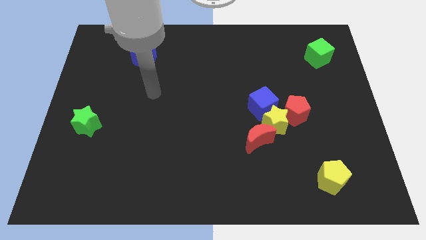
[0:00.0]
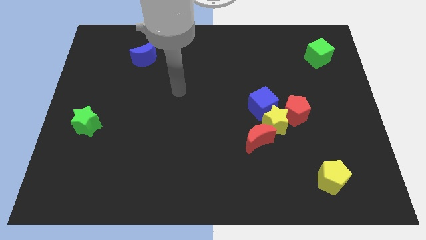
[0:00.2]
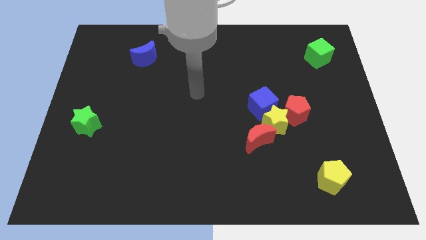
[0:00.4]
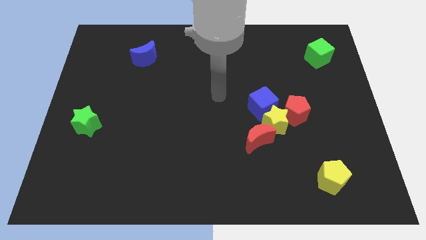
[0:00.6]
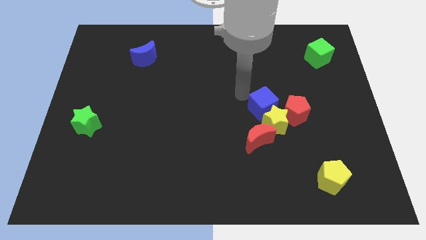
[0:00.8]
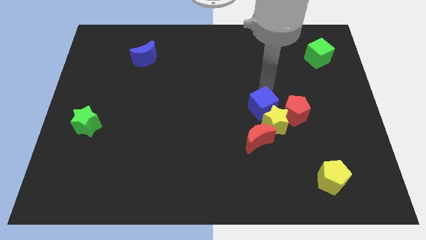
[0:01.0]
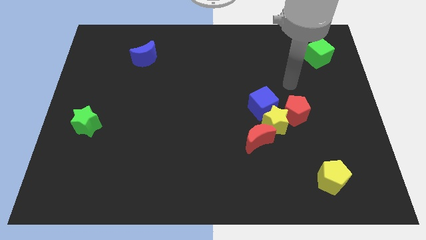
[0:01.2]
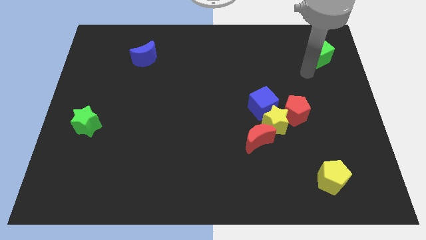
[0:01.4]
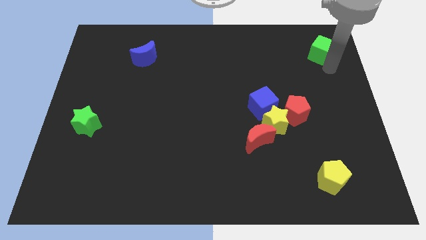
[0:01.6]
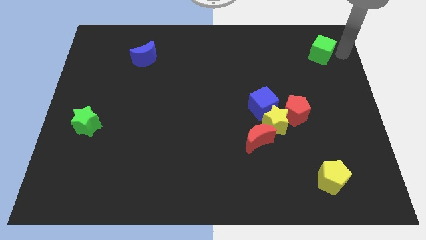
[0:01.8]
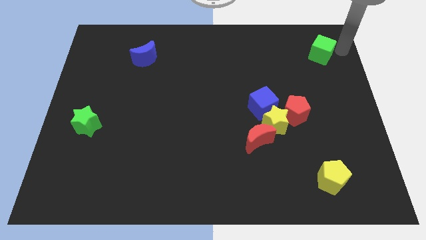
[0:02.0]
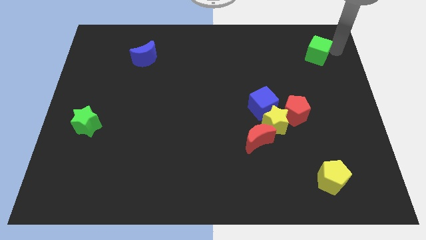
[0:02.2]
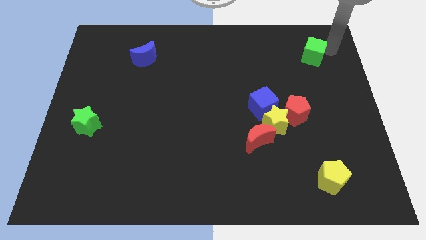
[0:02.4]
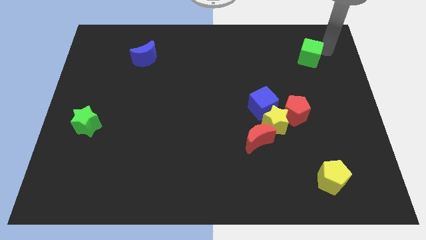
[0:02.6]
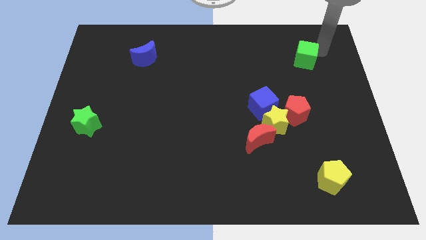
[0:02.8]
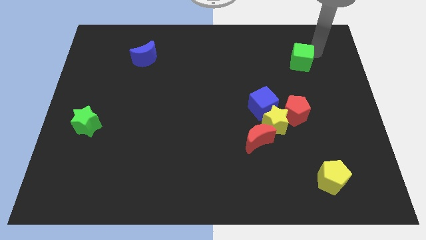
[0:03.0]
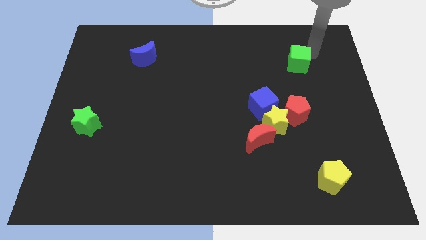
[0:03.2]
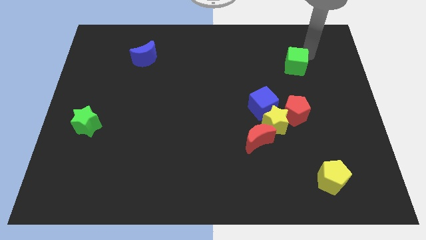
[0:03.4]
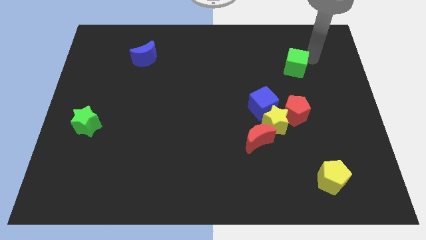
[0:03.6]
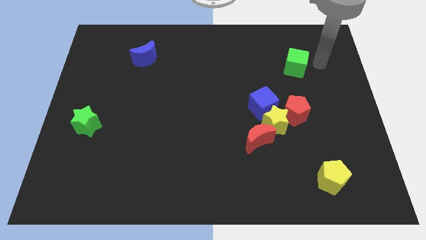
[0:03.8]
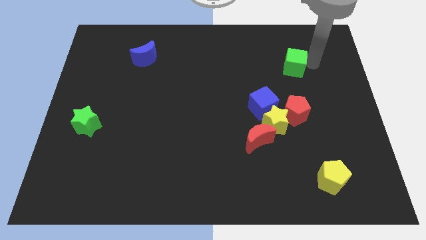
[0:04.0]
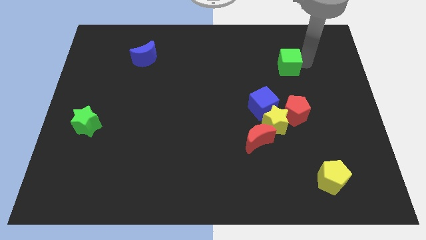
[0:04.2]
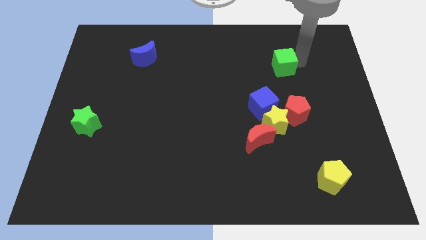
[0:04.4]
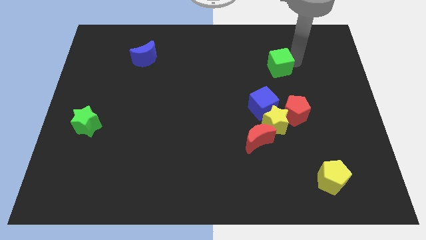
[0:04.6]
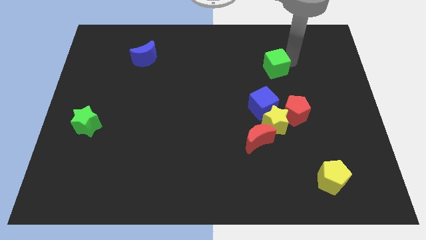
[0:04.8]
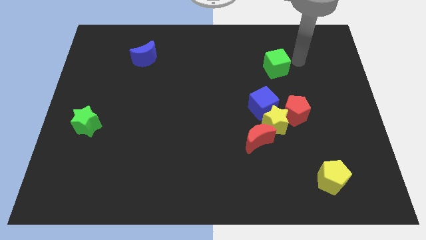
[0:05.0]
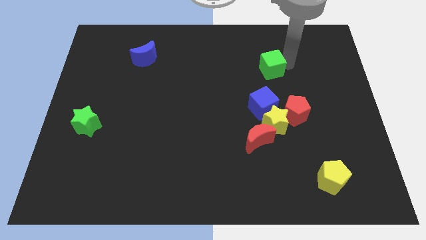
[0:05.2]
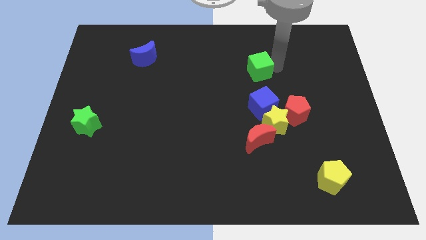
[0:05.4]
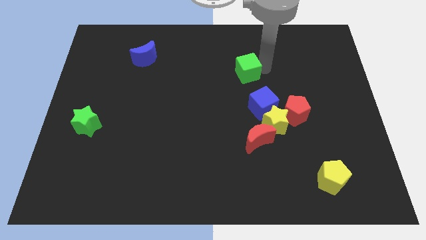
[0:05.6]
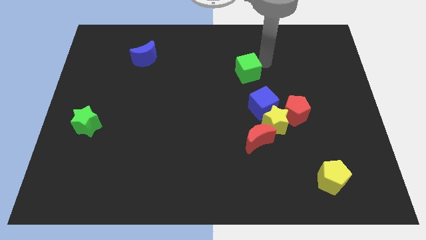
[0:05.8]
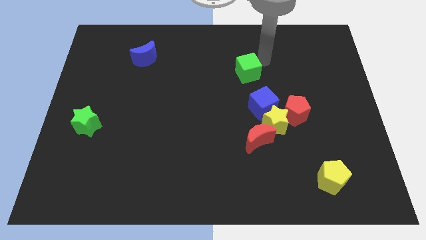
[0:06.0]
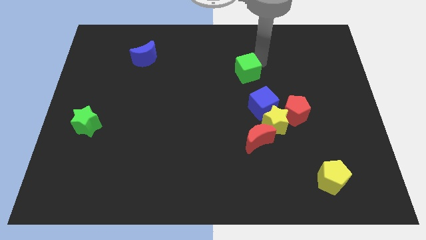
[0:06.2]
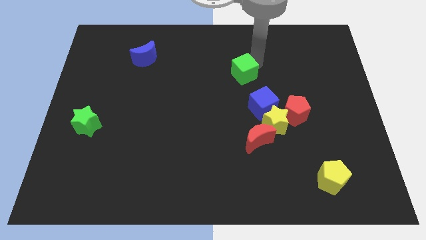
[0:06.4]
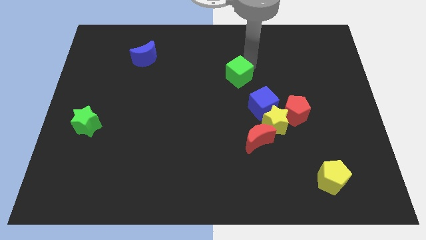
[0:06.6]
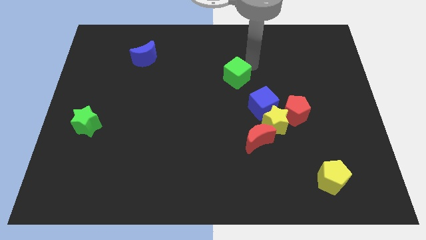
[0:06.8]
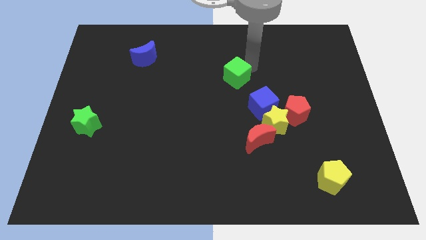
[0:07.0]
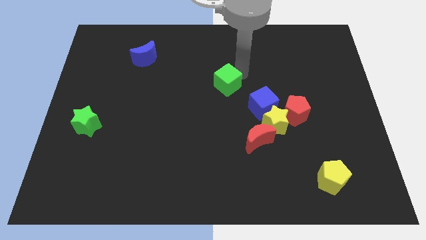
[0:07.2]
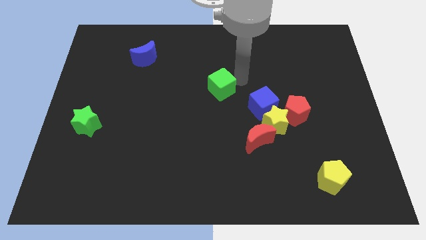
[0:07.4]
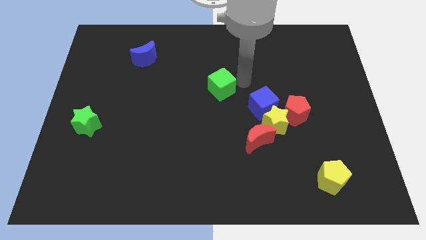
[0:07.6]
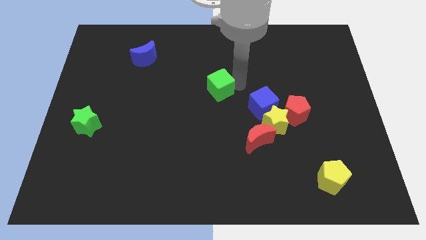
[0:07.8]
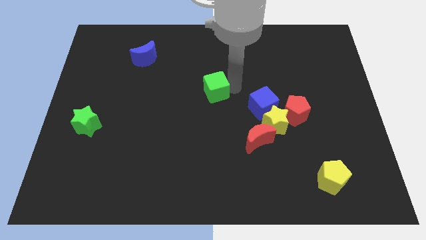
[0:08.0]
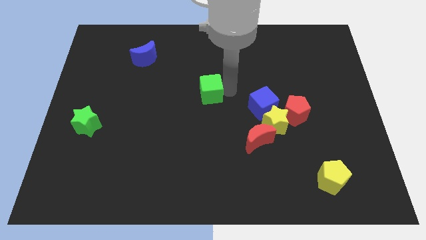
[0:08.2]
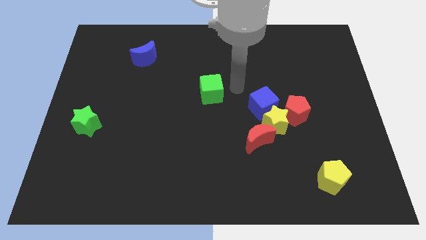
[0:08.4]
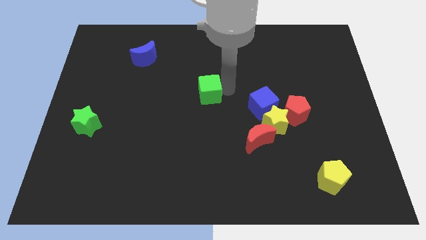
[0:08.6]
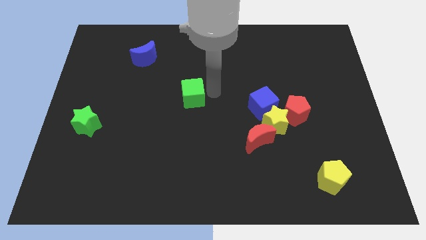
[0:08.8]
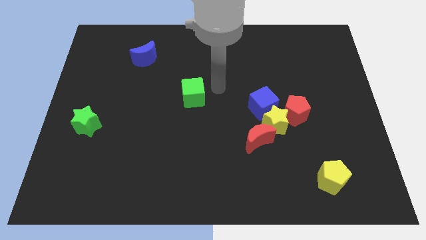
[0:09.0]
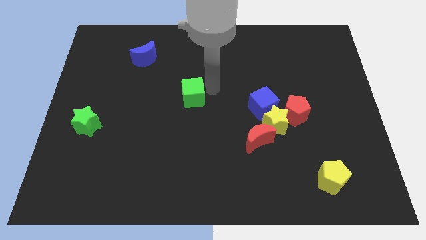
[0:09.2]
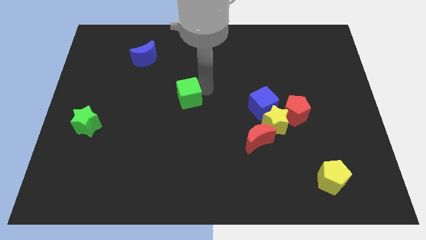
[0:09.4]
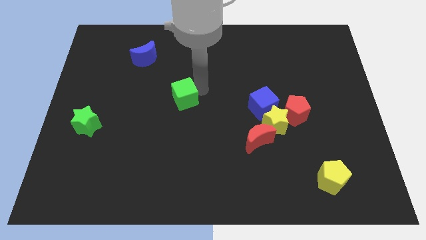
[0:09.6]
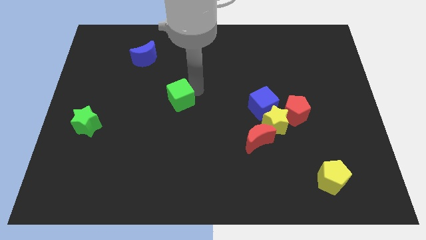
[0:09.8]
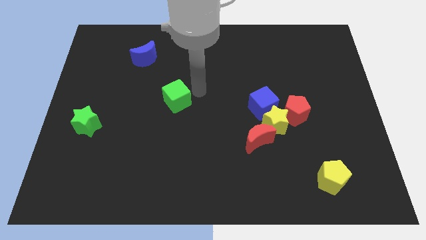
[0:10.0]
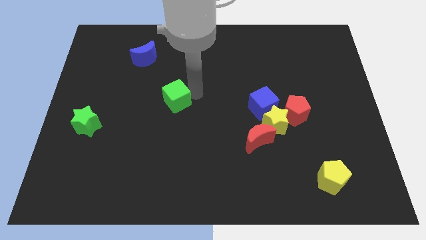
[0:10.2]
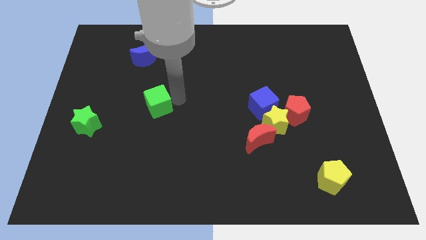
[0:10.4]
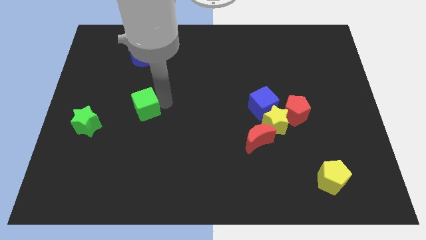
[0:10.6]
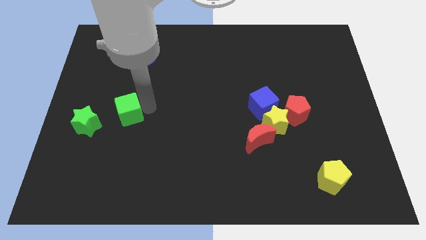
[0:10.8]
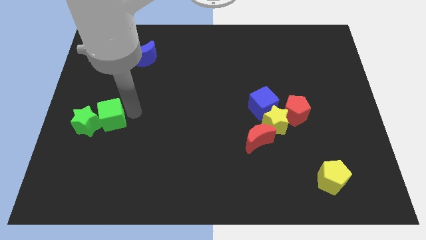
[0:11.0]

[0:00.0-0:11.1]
put the green cube close to the green star

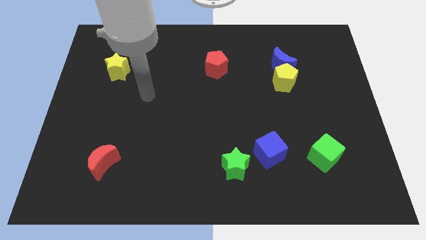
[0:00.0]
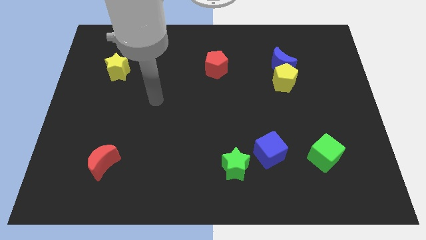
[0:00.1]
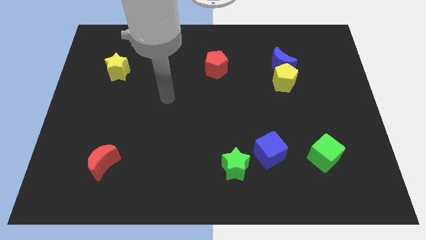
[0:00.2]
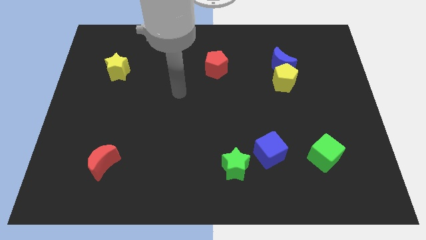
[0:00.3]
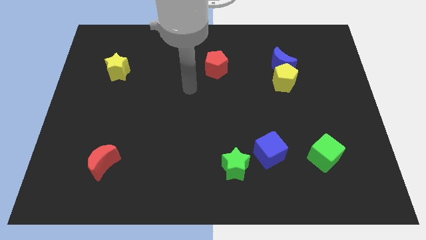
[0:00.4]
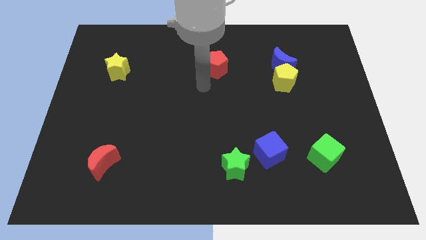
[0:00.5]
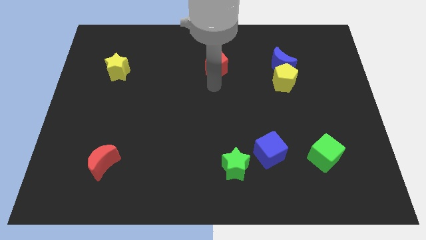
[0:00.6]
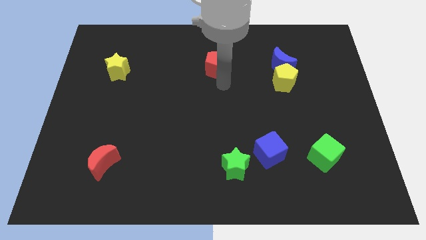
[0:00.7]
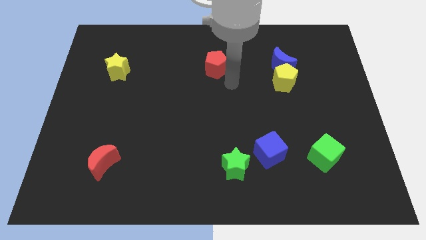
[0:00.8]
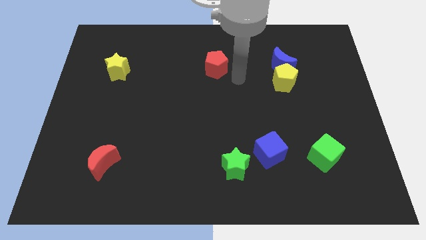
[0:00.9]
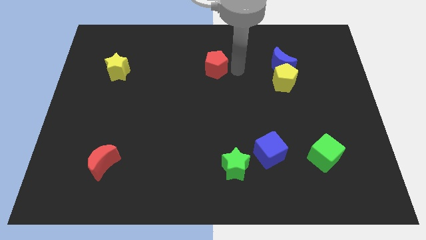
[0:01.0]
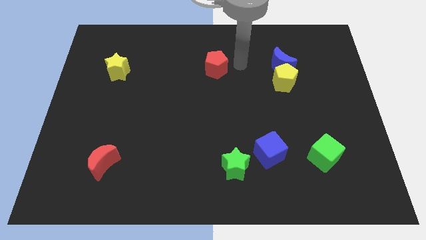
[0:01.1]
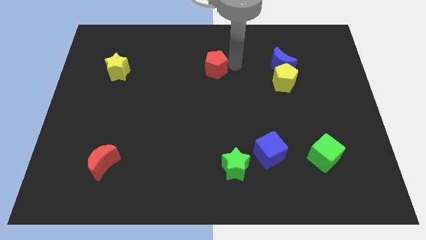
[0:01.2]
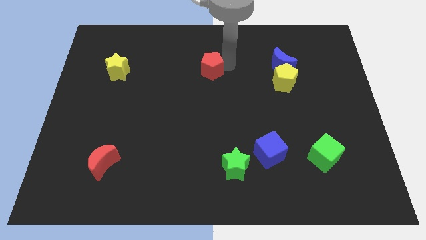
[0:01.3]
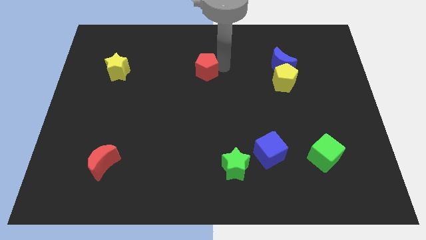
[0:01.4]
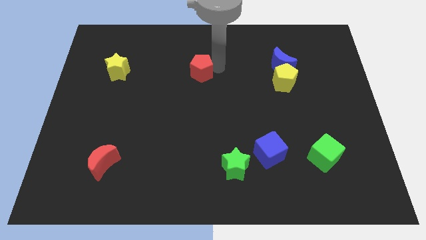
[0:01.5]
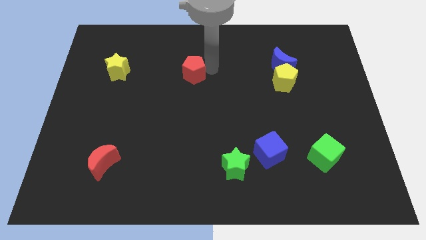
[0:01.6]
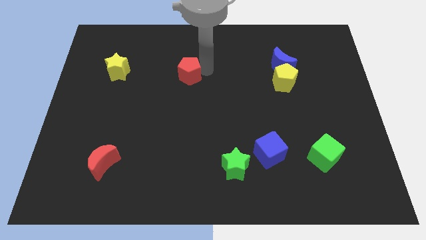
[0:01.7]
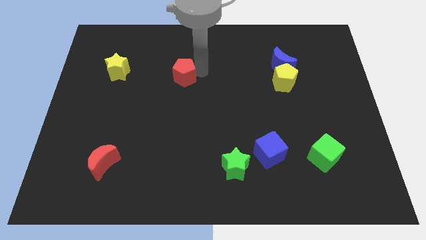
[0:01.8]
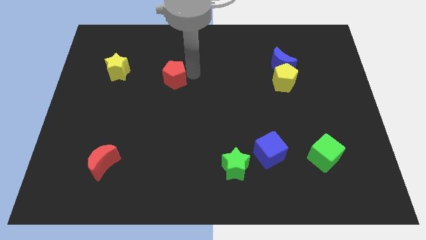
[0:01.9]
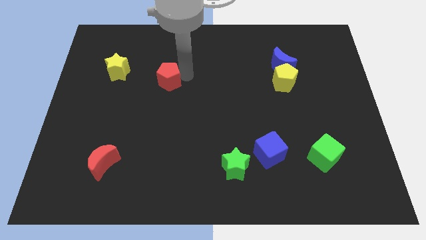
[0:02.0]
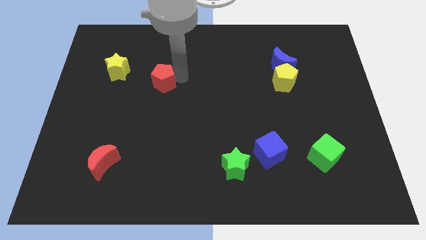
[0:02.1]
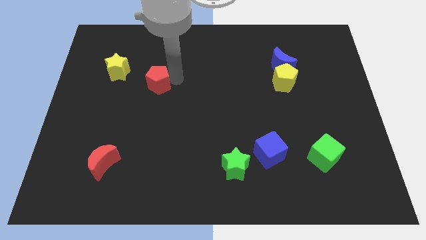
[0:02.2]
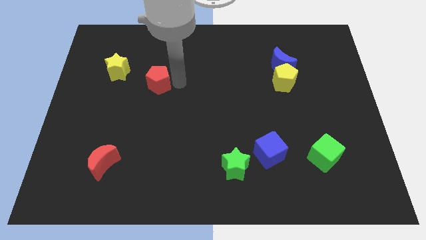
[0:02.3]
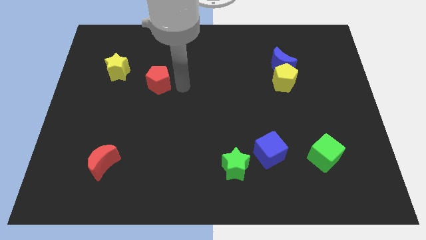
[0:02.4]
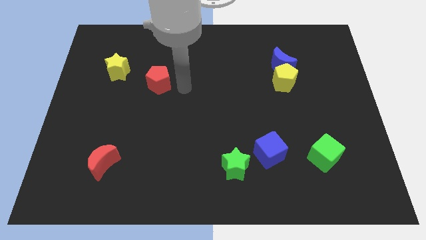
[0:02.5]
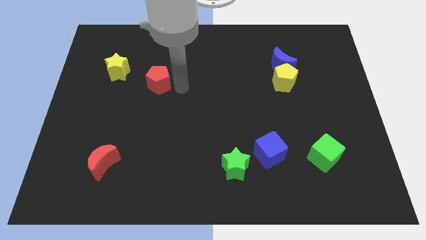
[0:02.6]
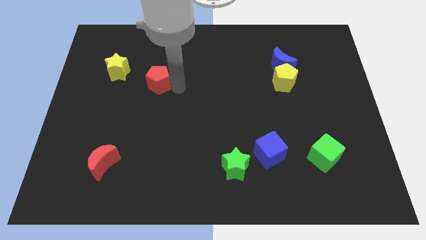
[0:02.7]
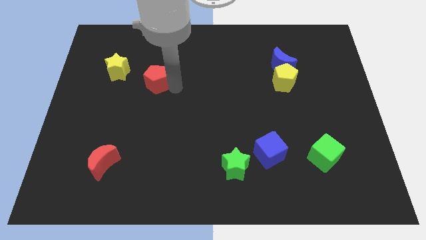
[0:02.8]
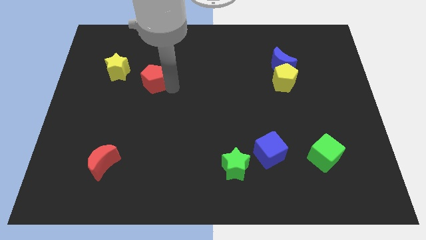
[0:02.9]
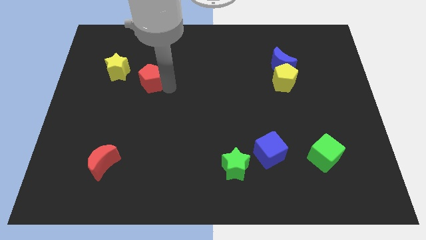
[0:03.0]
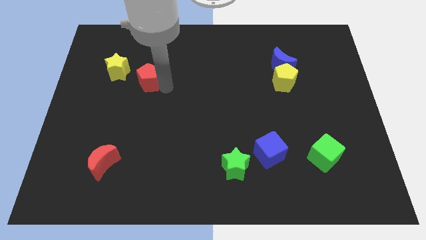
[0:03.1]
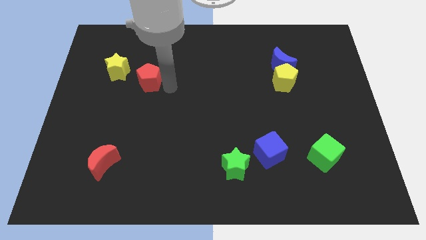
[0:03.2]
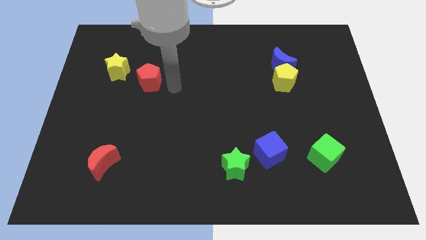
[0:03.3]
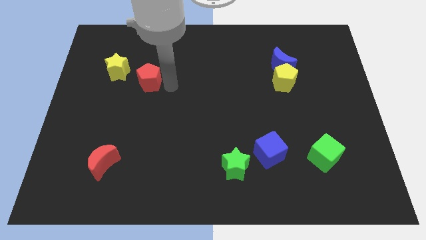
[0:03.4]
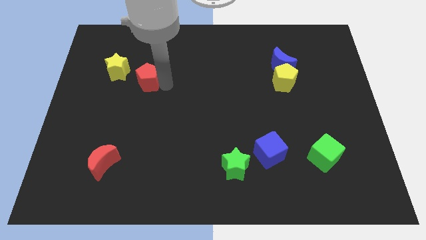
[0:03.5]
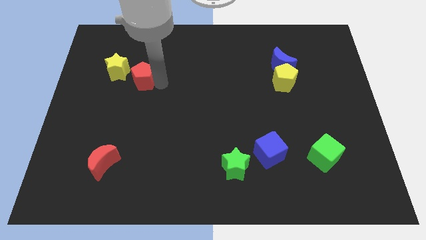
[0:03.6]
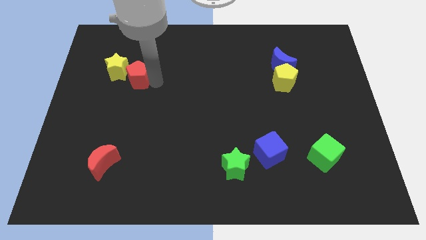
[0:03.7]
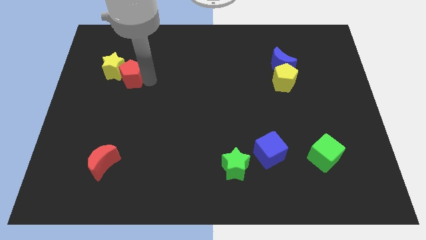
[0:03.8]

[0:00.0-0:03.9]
move the red pentagon towards the yellow star
